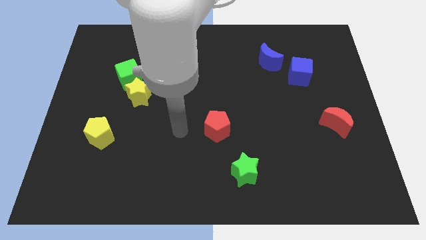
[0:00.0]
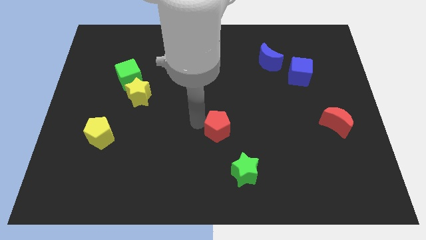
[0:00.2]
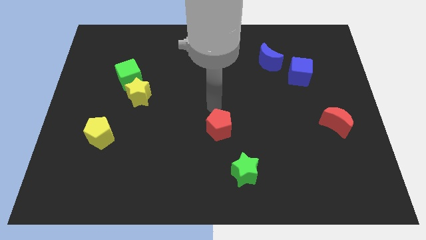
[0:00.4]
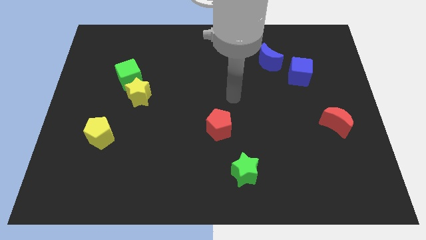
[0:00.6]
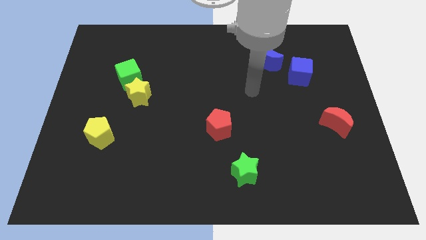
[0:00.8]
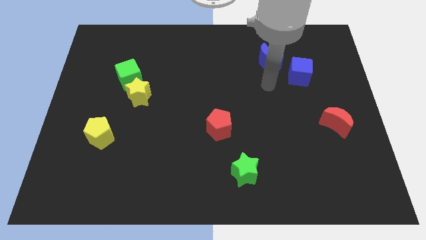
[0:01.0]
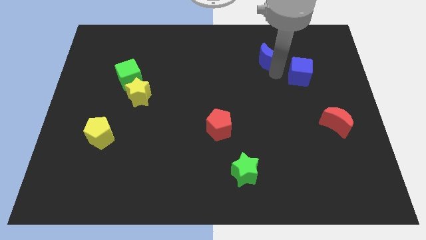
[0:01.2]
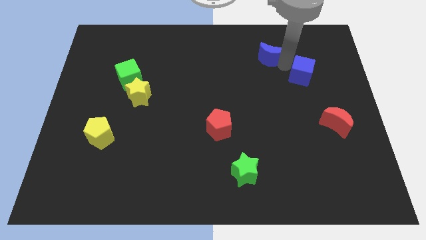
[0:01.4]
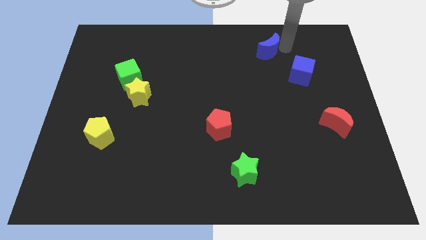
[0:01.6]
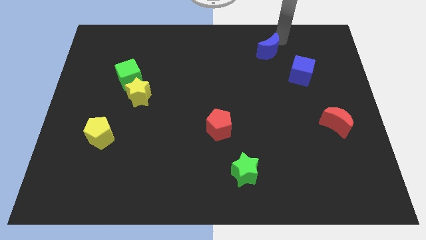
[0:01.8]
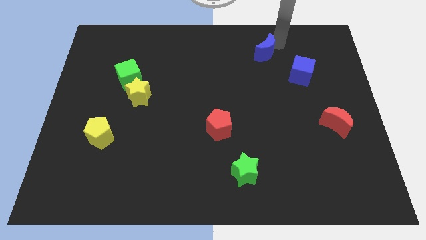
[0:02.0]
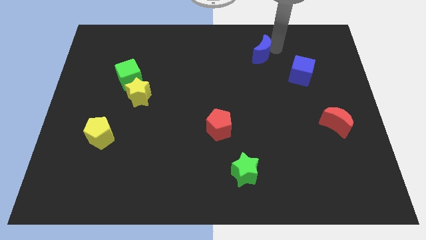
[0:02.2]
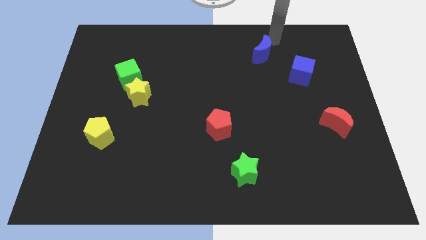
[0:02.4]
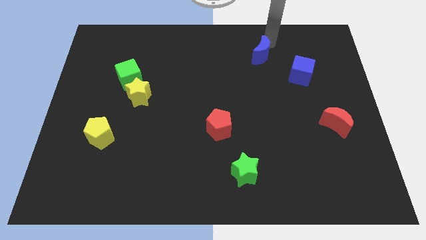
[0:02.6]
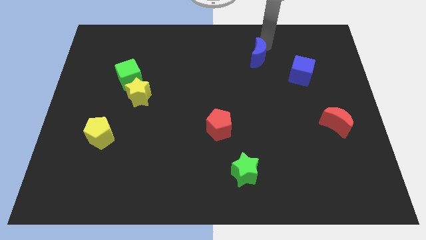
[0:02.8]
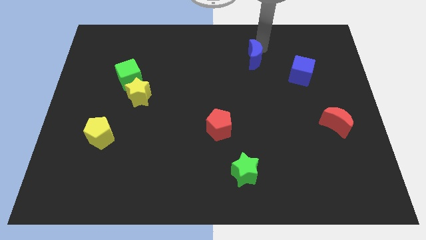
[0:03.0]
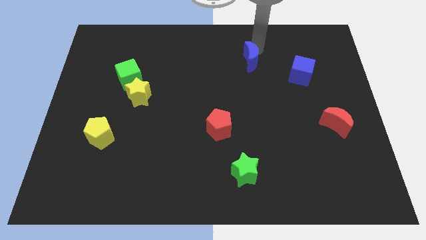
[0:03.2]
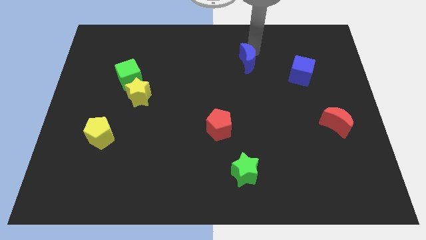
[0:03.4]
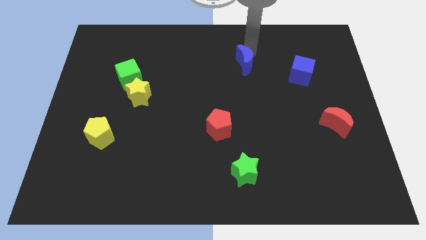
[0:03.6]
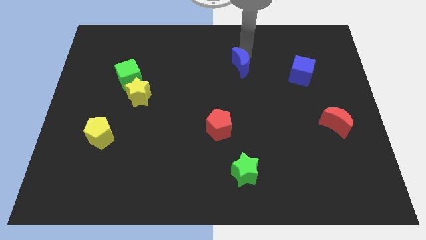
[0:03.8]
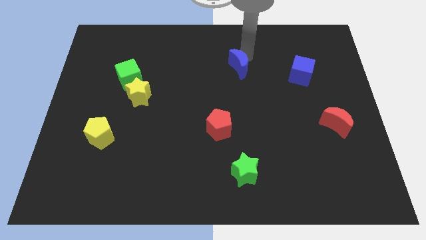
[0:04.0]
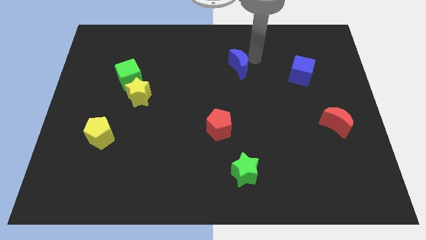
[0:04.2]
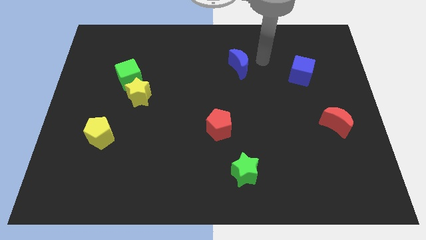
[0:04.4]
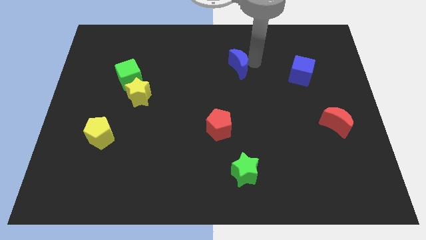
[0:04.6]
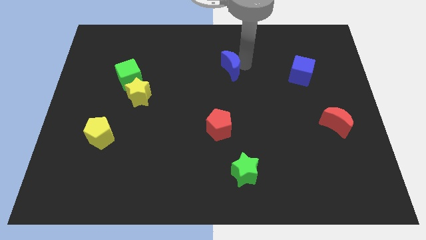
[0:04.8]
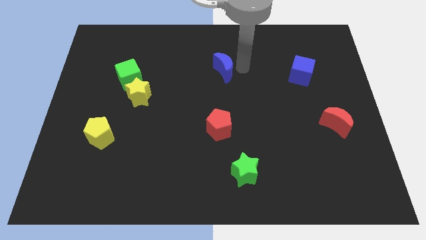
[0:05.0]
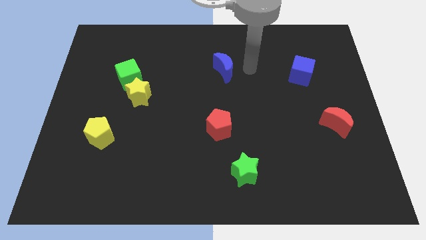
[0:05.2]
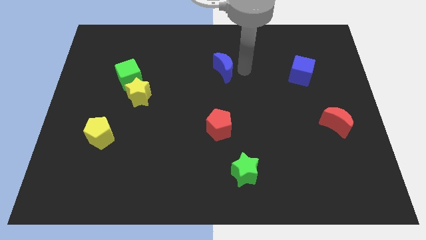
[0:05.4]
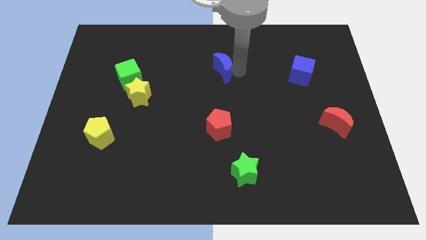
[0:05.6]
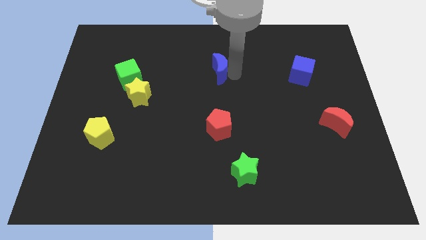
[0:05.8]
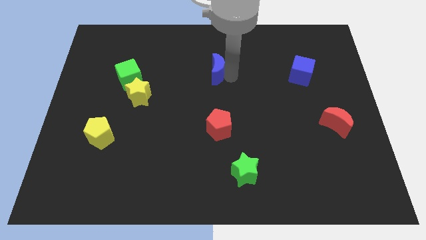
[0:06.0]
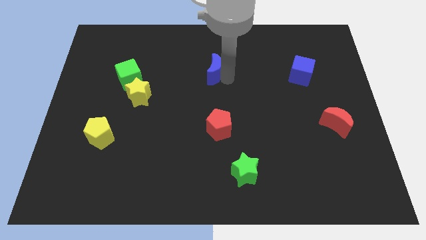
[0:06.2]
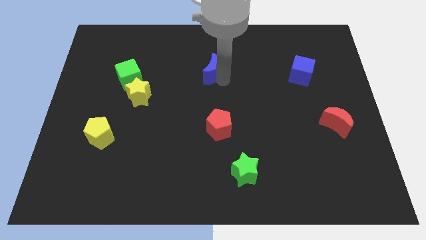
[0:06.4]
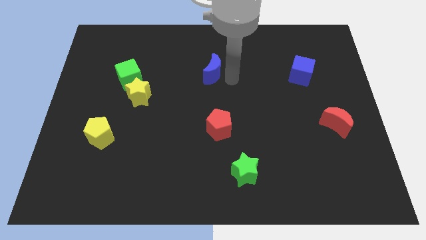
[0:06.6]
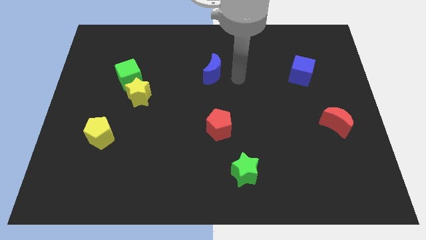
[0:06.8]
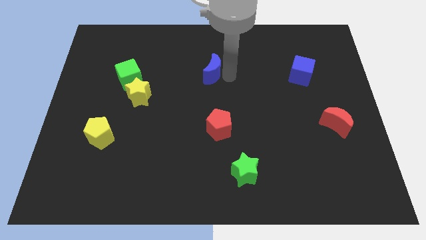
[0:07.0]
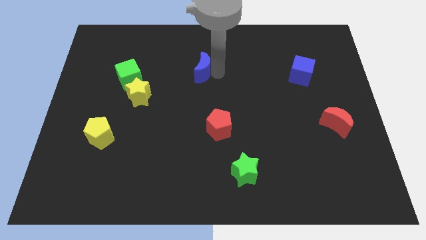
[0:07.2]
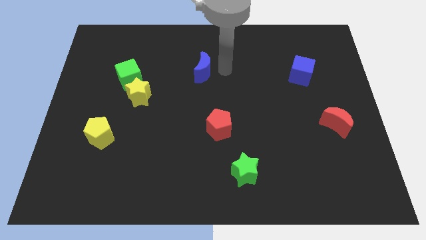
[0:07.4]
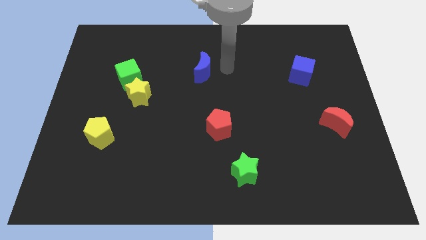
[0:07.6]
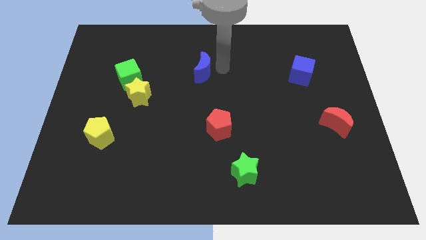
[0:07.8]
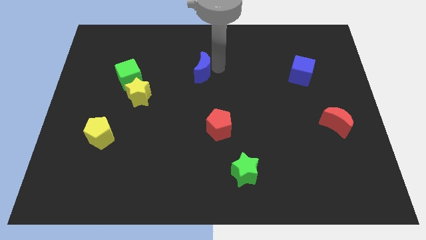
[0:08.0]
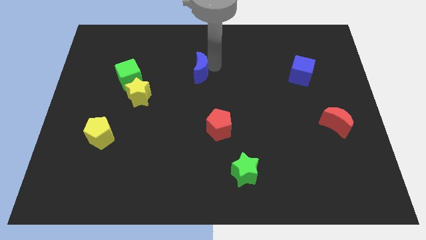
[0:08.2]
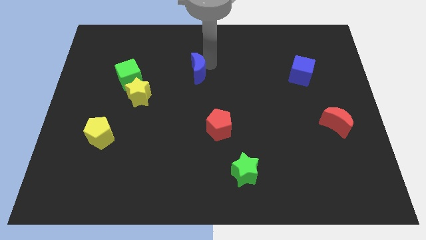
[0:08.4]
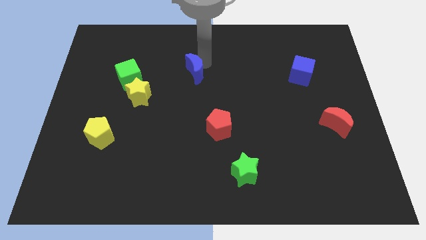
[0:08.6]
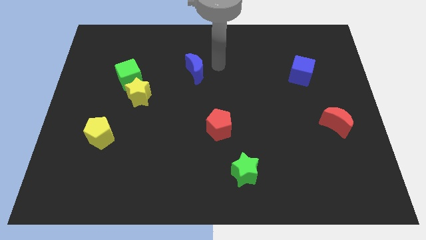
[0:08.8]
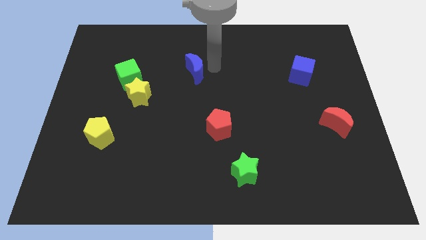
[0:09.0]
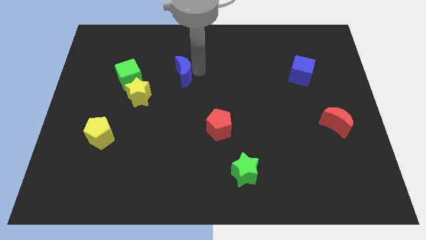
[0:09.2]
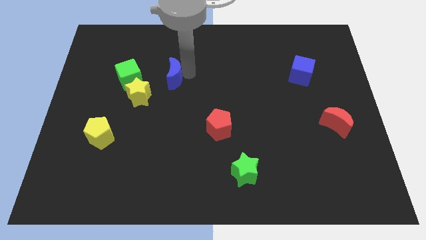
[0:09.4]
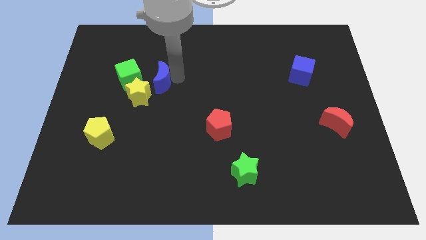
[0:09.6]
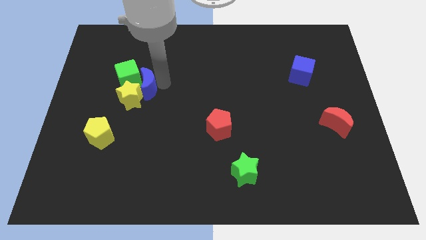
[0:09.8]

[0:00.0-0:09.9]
put the blue moon next to the green cube

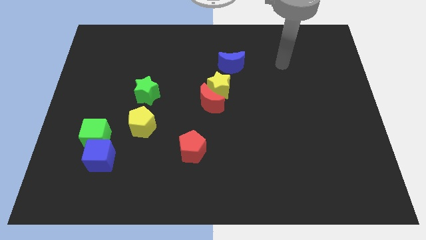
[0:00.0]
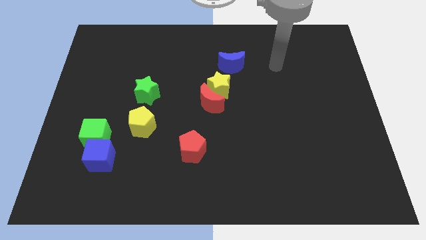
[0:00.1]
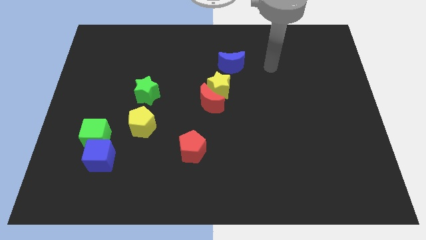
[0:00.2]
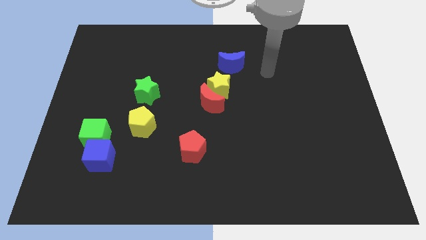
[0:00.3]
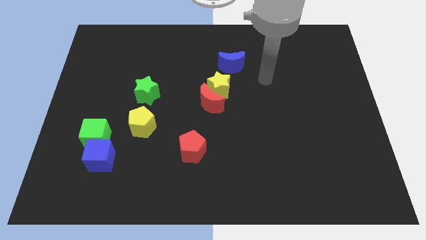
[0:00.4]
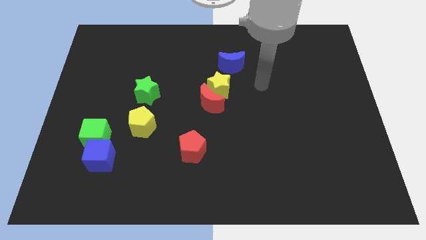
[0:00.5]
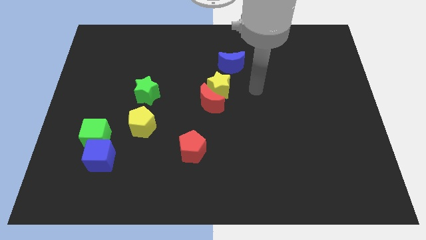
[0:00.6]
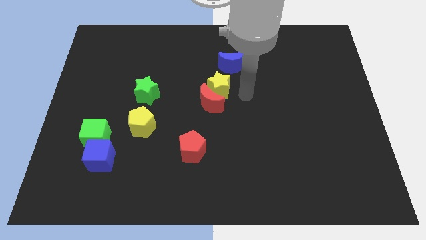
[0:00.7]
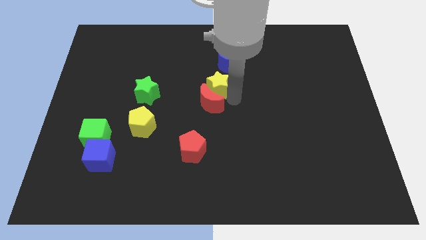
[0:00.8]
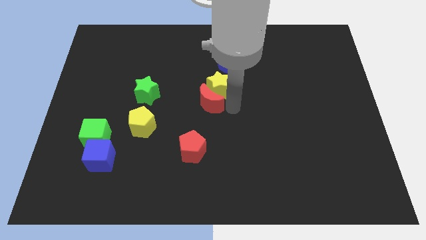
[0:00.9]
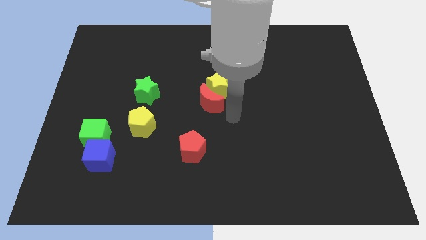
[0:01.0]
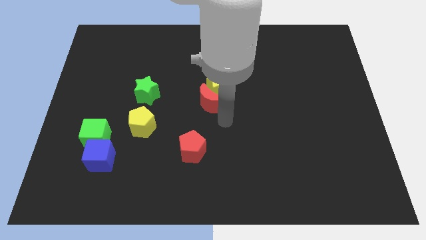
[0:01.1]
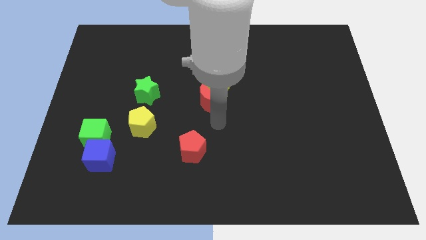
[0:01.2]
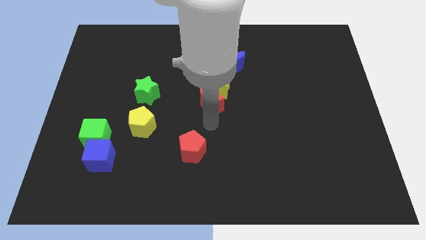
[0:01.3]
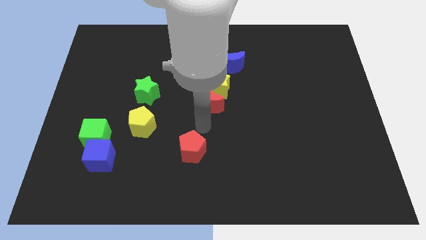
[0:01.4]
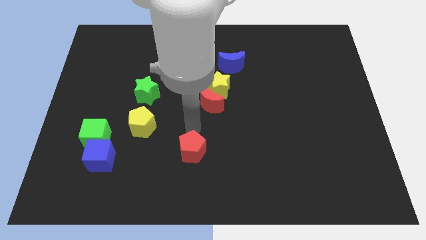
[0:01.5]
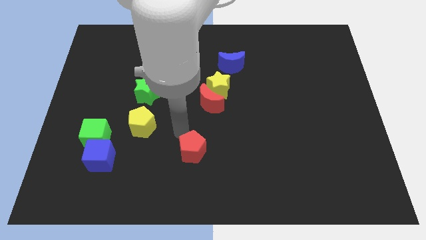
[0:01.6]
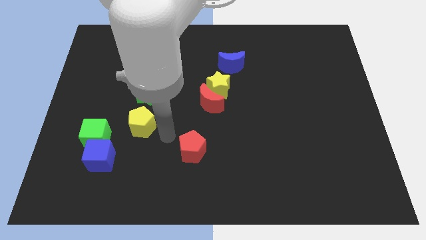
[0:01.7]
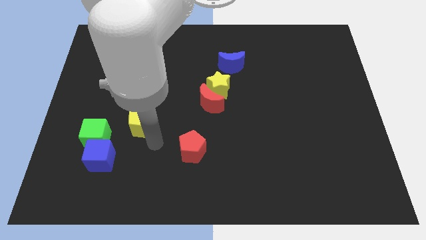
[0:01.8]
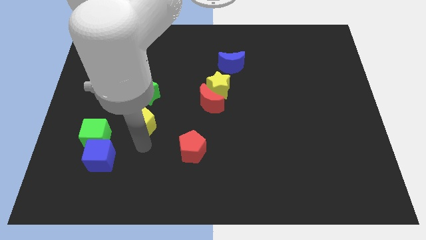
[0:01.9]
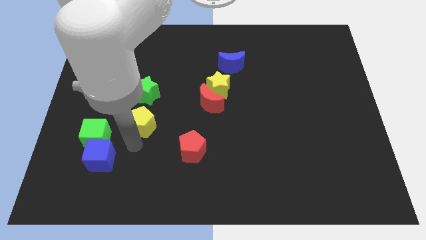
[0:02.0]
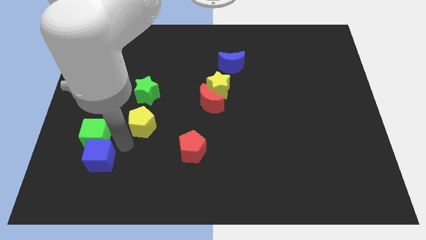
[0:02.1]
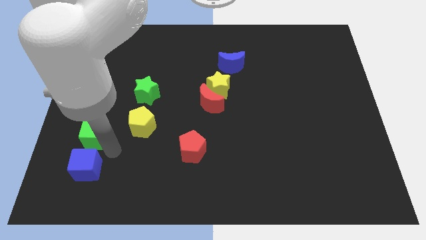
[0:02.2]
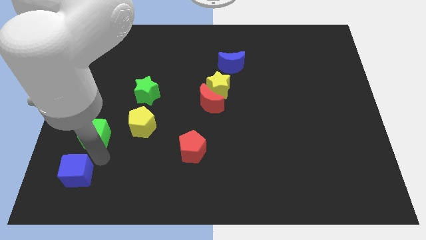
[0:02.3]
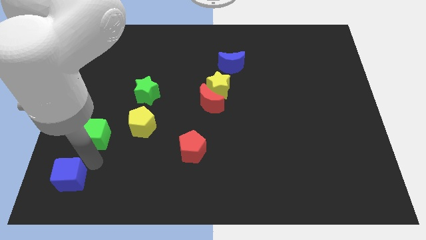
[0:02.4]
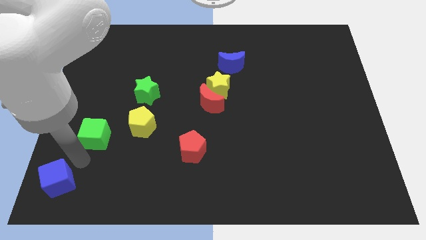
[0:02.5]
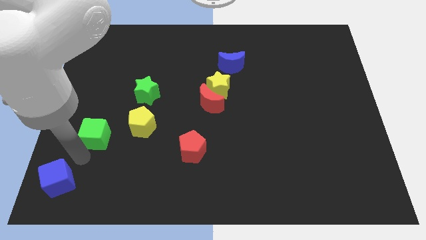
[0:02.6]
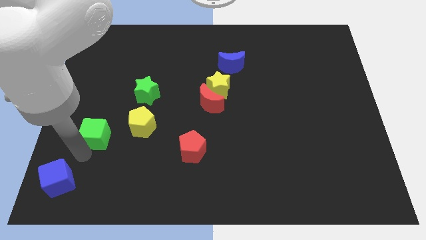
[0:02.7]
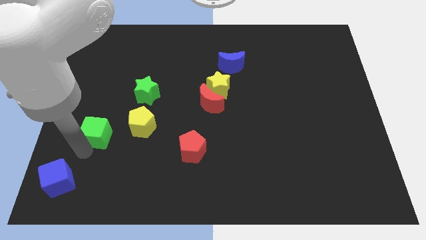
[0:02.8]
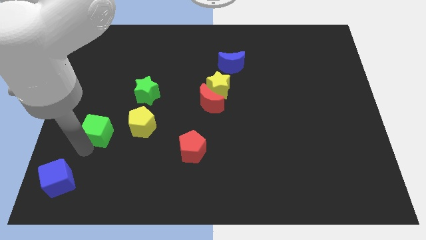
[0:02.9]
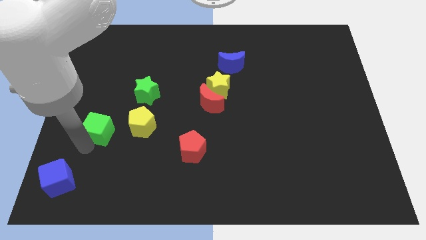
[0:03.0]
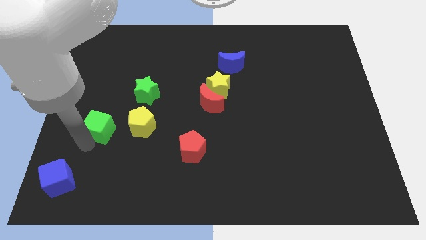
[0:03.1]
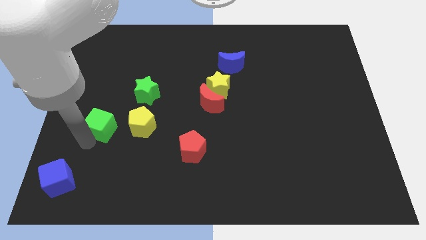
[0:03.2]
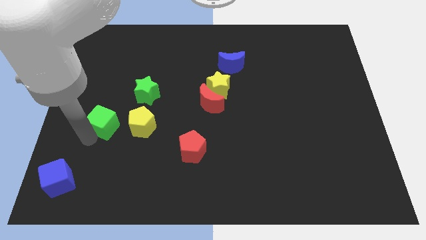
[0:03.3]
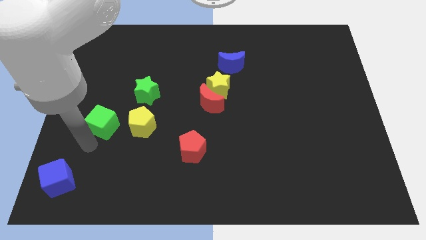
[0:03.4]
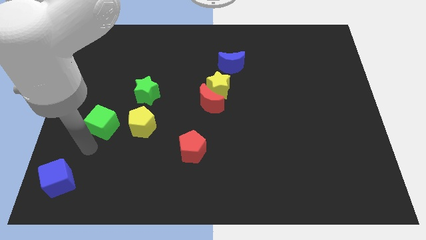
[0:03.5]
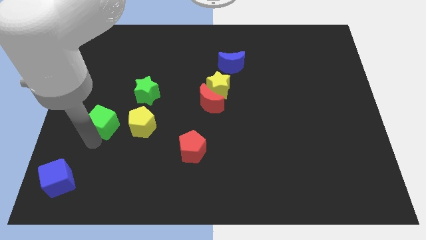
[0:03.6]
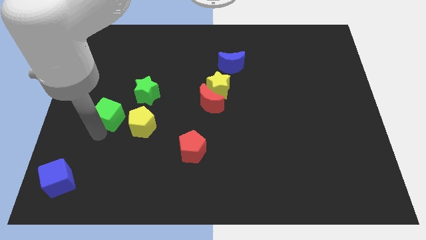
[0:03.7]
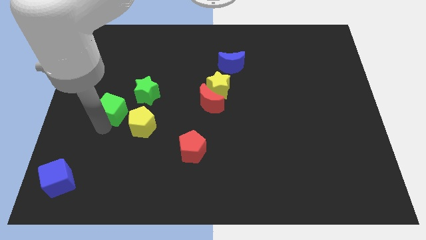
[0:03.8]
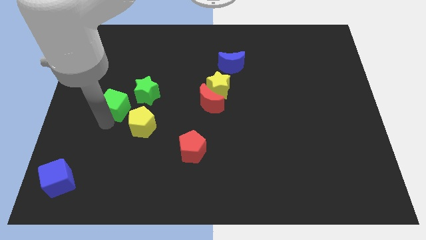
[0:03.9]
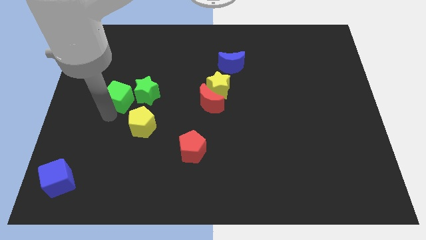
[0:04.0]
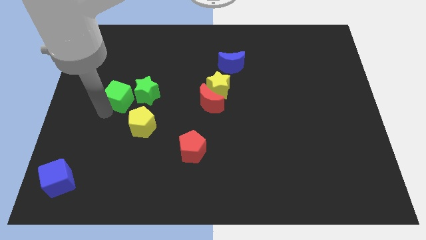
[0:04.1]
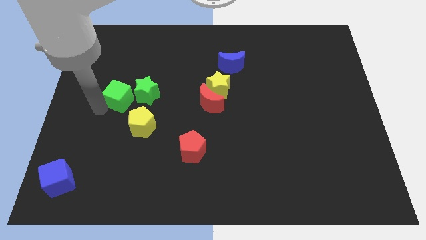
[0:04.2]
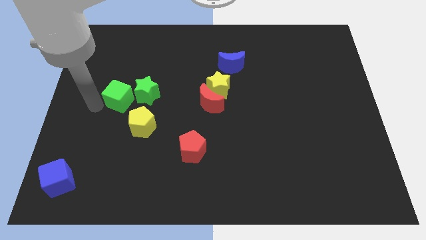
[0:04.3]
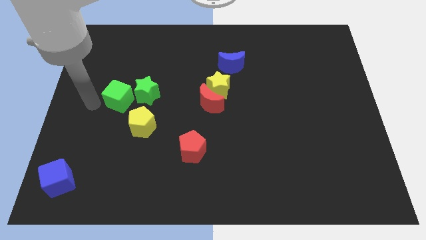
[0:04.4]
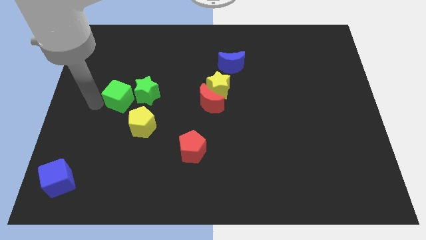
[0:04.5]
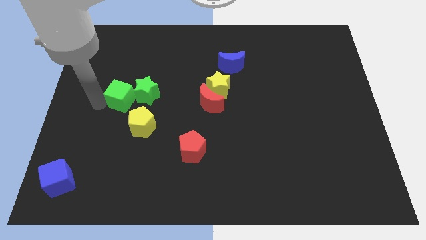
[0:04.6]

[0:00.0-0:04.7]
move the green cube towards the green star
